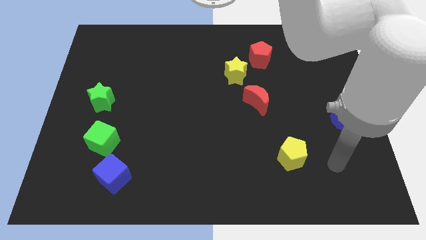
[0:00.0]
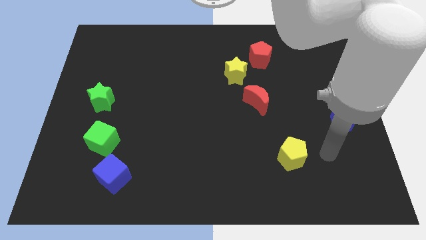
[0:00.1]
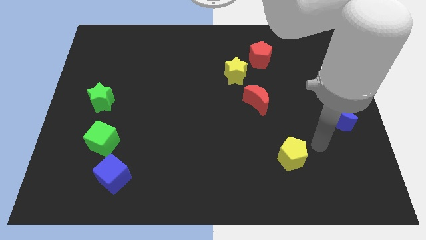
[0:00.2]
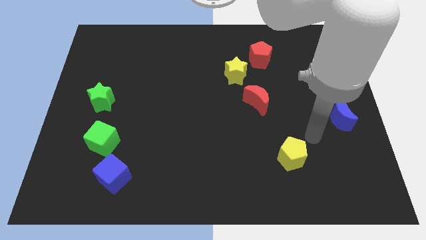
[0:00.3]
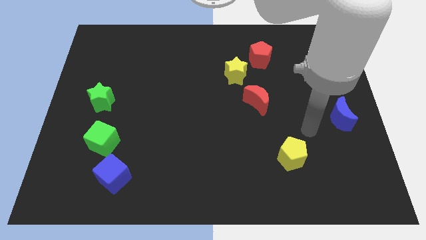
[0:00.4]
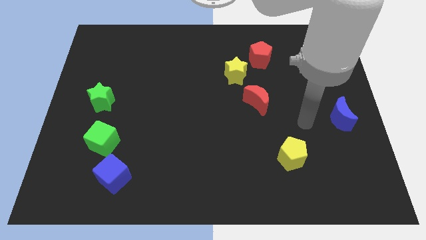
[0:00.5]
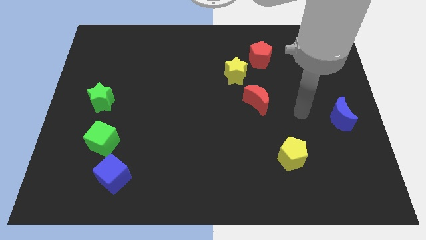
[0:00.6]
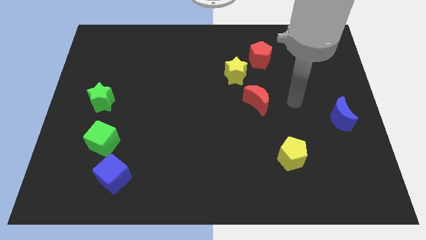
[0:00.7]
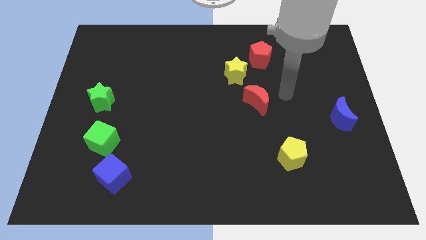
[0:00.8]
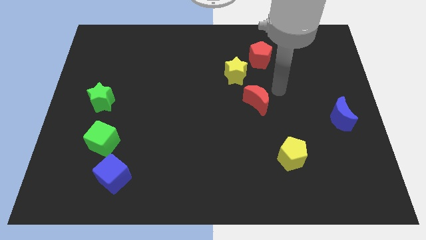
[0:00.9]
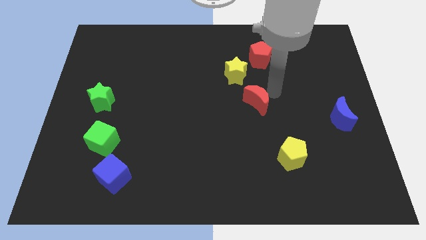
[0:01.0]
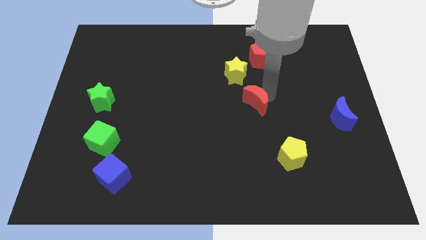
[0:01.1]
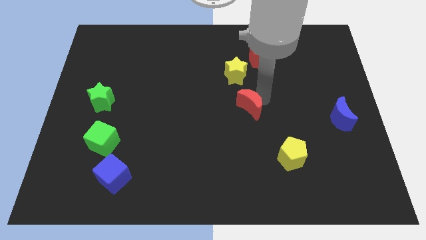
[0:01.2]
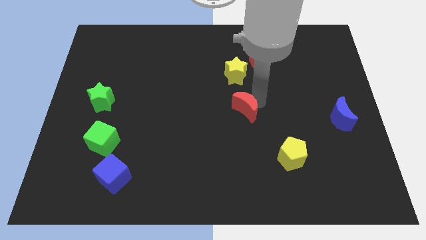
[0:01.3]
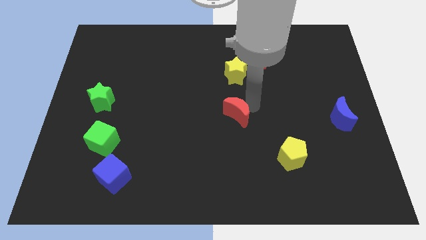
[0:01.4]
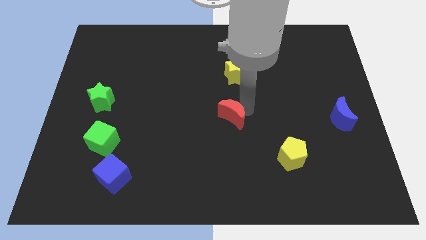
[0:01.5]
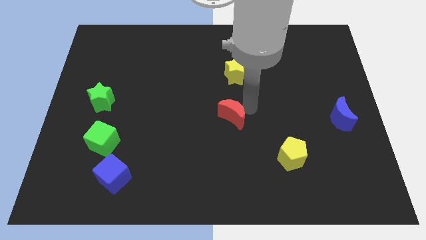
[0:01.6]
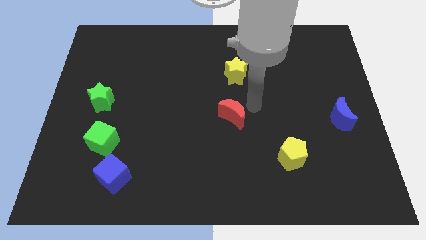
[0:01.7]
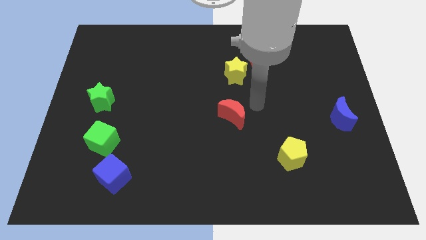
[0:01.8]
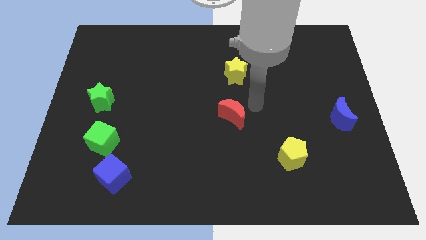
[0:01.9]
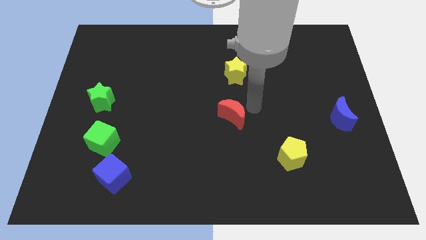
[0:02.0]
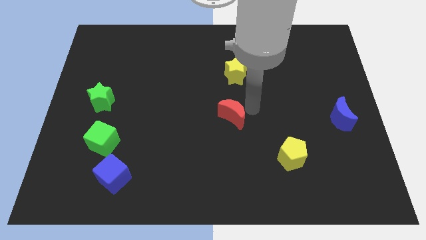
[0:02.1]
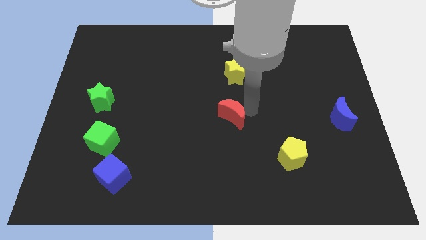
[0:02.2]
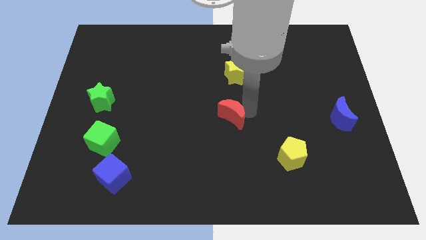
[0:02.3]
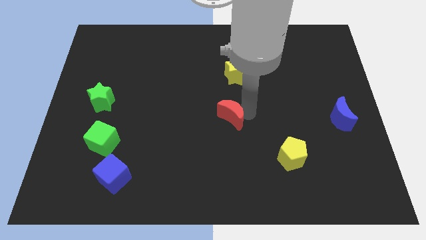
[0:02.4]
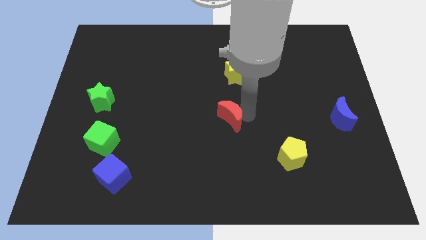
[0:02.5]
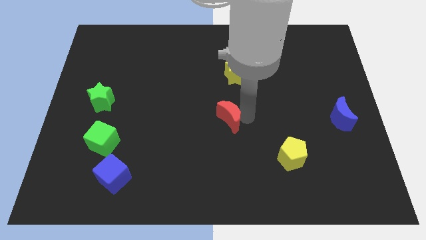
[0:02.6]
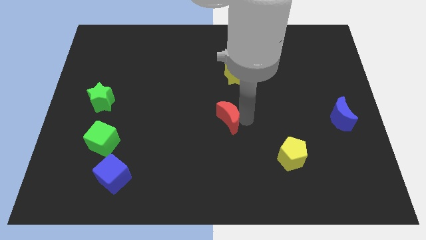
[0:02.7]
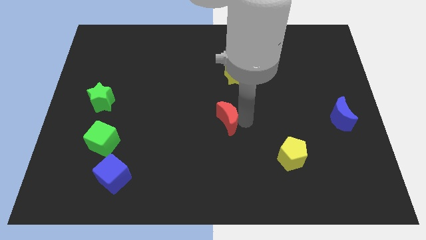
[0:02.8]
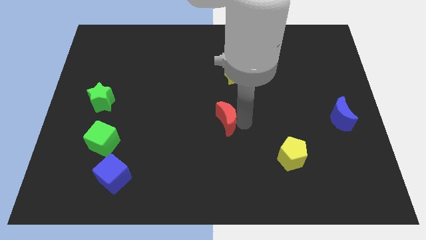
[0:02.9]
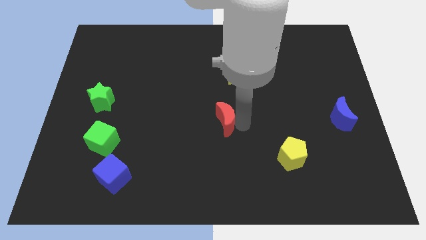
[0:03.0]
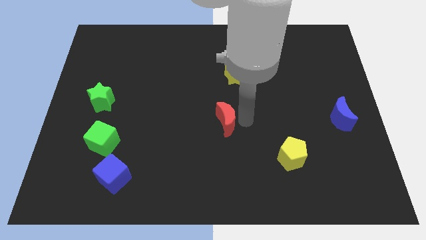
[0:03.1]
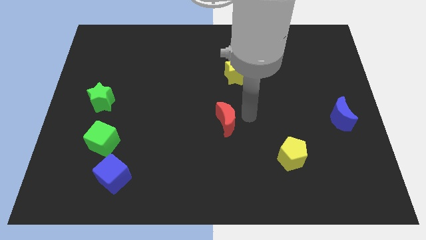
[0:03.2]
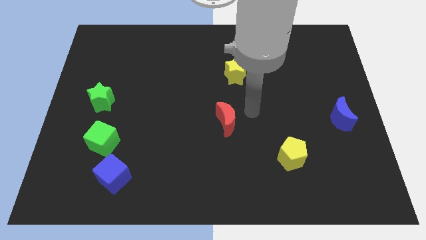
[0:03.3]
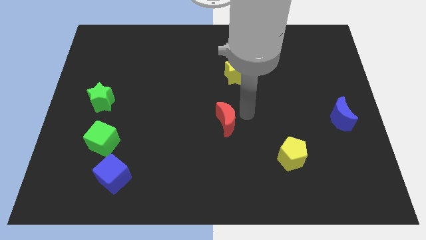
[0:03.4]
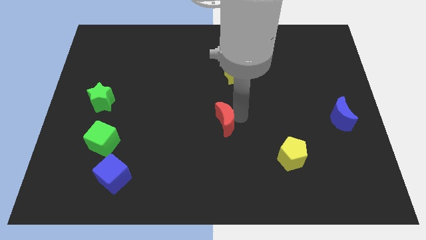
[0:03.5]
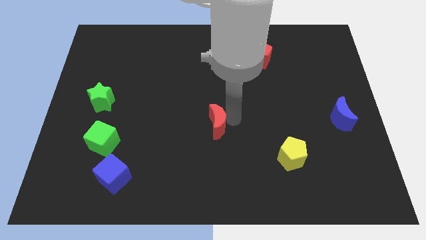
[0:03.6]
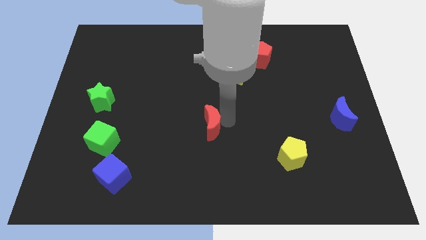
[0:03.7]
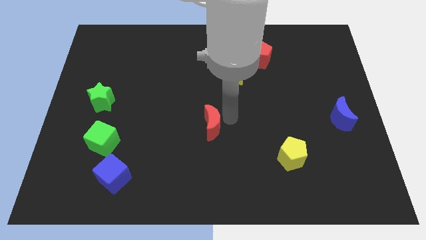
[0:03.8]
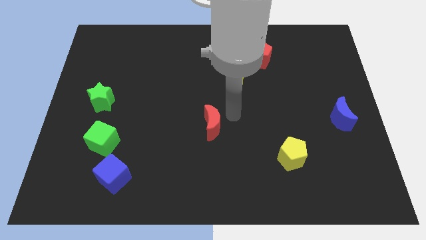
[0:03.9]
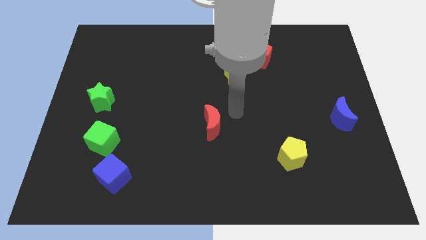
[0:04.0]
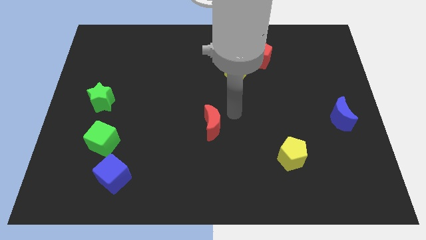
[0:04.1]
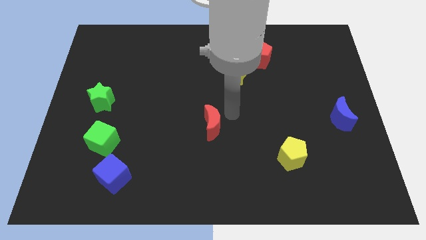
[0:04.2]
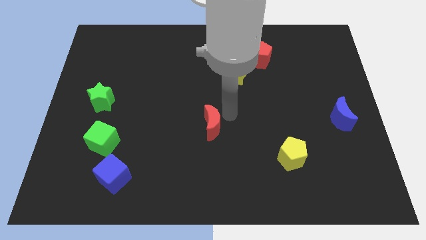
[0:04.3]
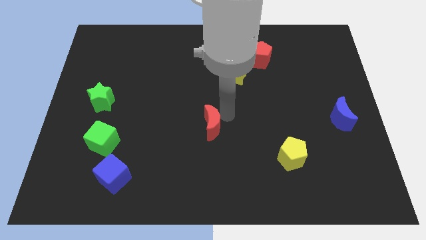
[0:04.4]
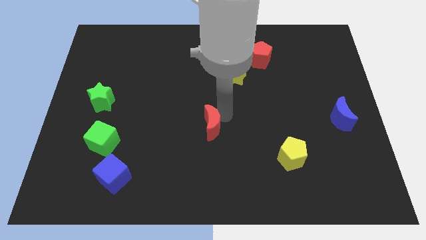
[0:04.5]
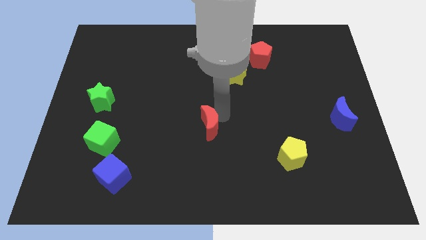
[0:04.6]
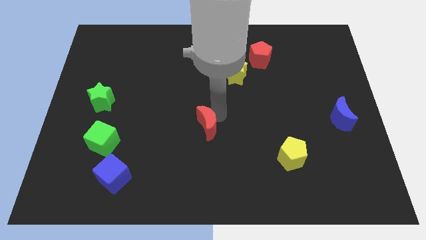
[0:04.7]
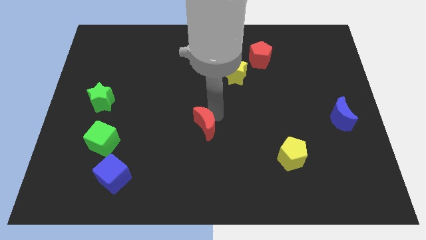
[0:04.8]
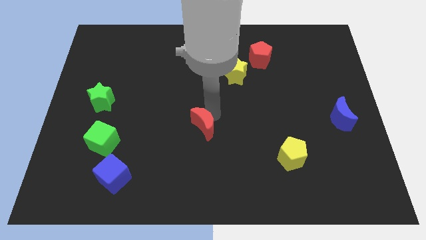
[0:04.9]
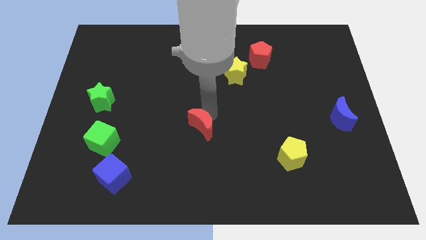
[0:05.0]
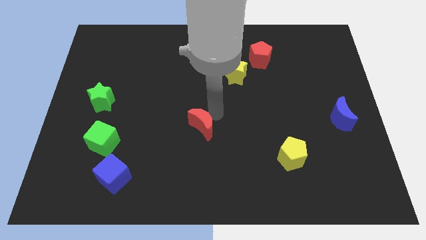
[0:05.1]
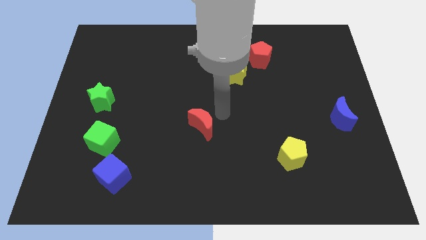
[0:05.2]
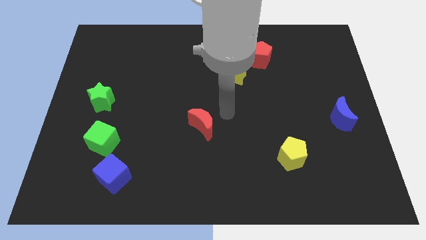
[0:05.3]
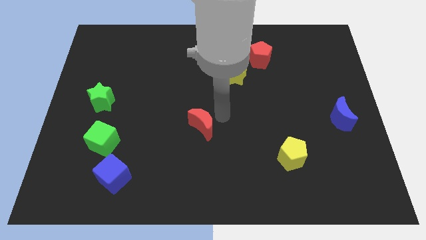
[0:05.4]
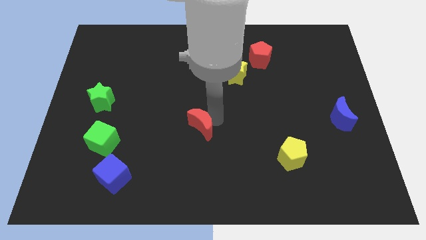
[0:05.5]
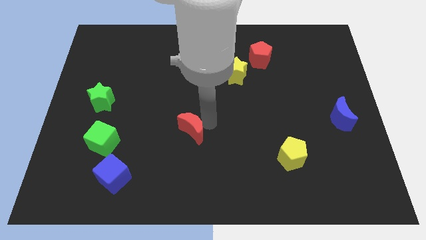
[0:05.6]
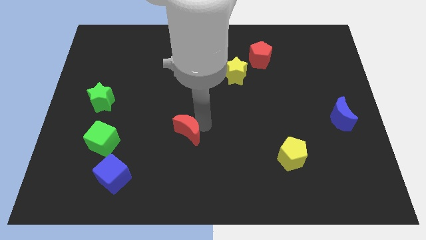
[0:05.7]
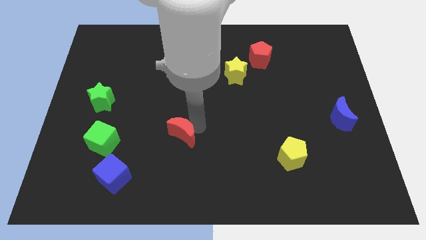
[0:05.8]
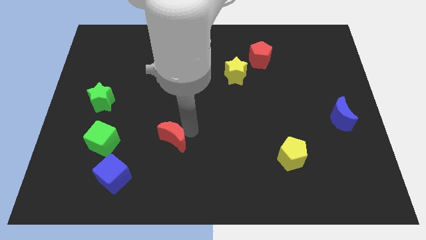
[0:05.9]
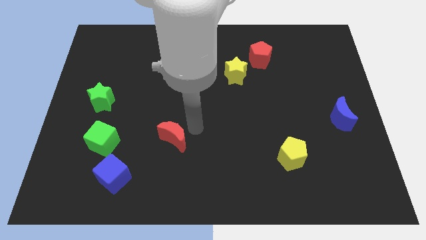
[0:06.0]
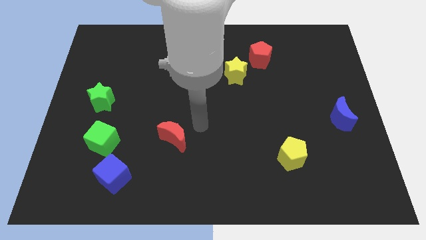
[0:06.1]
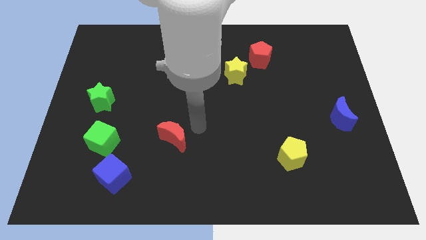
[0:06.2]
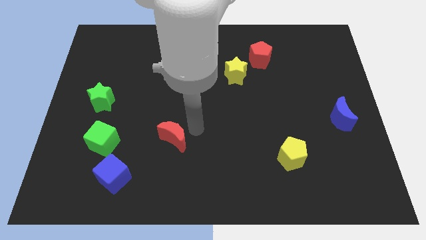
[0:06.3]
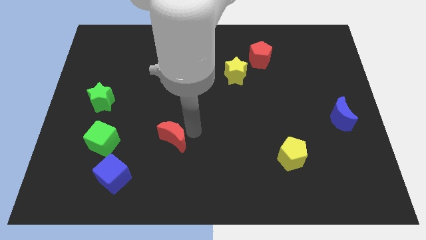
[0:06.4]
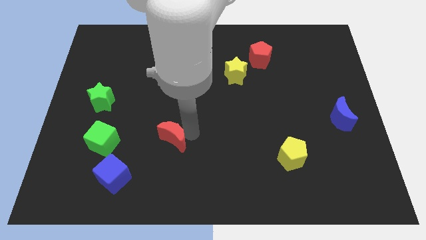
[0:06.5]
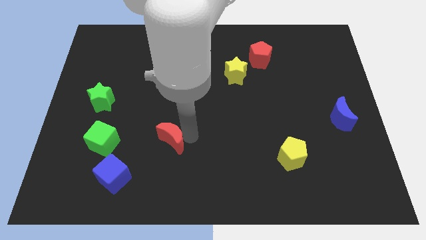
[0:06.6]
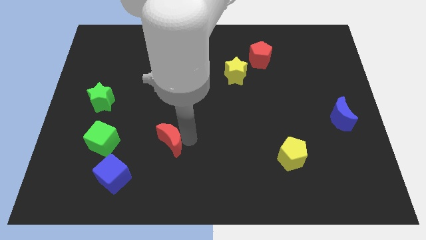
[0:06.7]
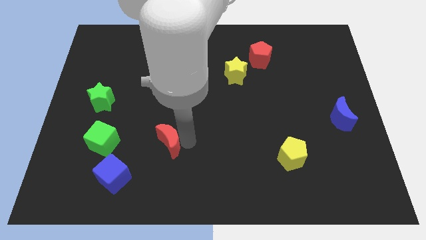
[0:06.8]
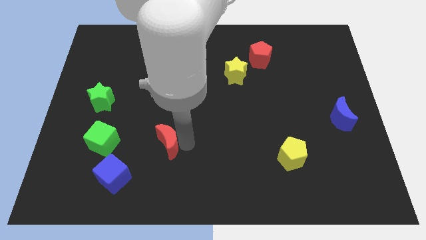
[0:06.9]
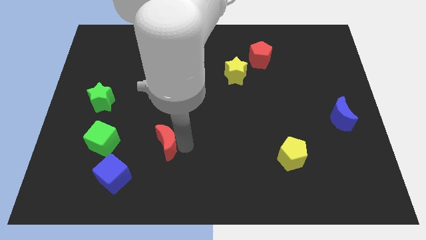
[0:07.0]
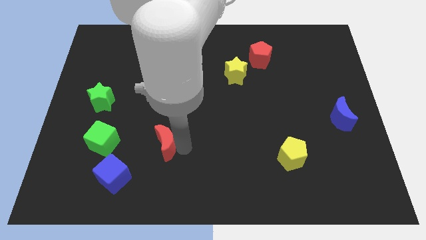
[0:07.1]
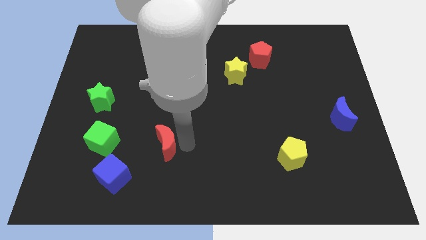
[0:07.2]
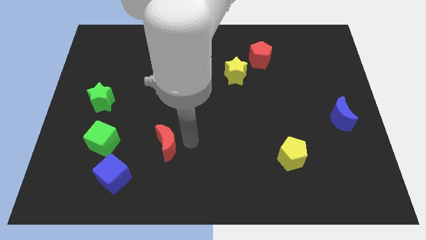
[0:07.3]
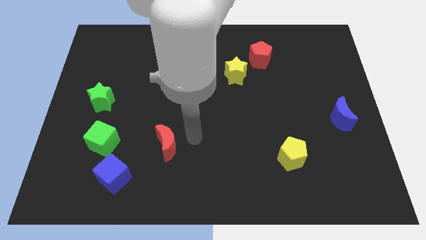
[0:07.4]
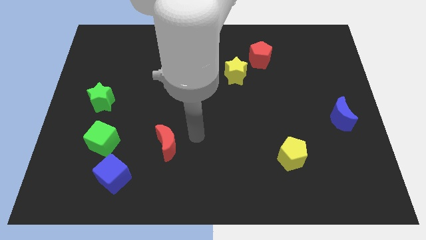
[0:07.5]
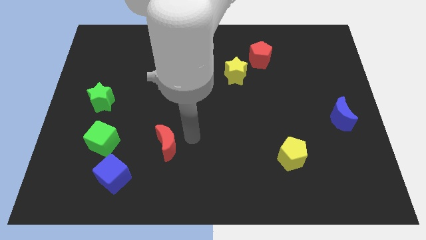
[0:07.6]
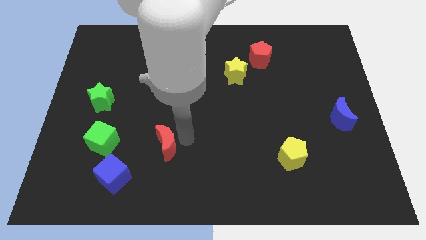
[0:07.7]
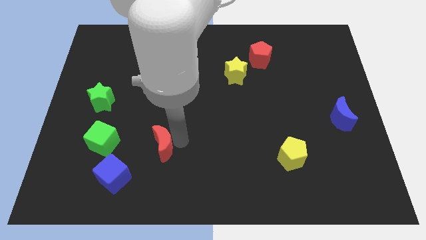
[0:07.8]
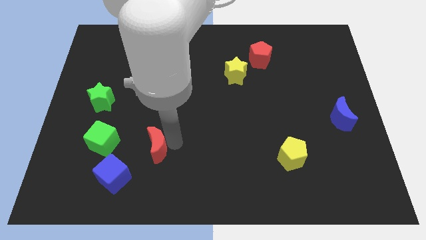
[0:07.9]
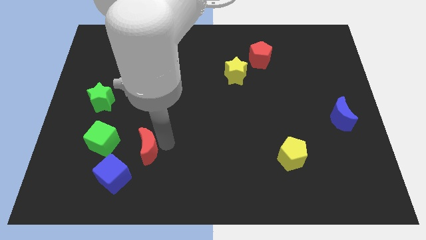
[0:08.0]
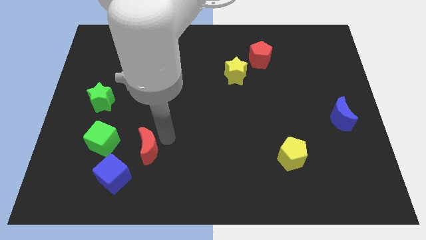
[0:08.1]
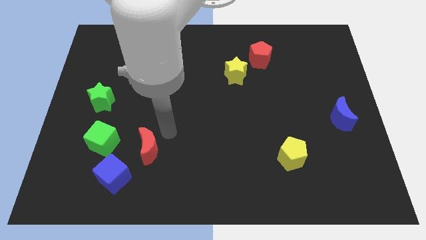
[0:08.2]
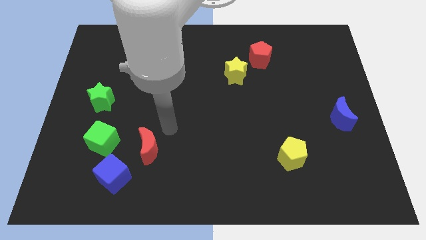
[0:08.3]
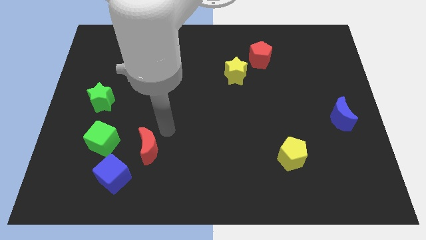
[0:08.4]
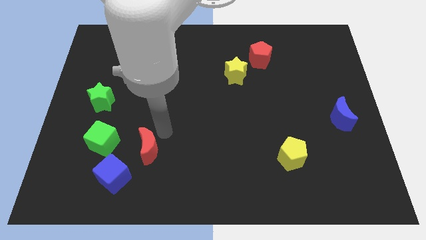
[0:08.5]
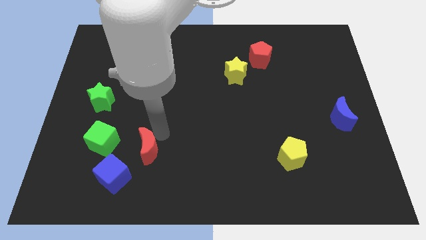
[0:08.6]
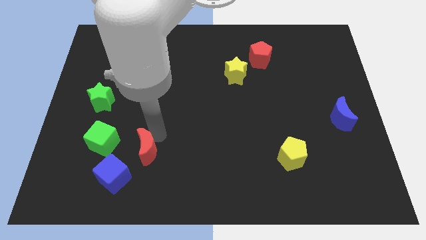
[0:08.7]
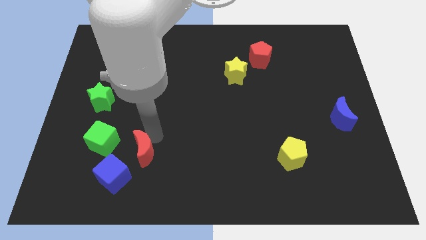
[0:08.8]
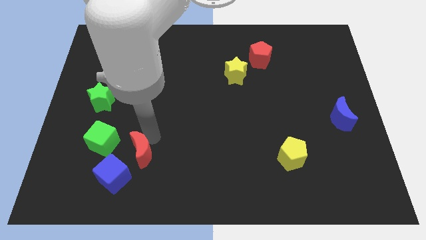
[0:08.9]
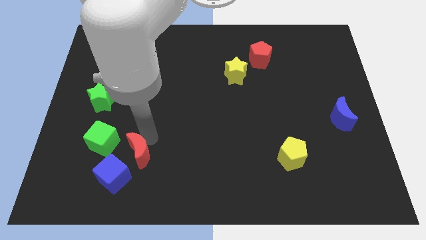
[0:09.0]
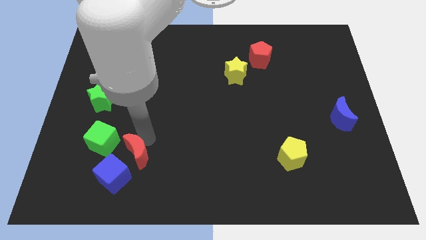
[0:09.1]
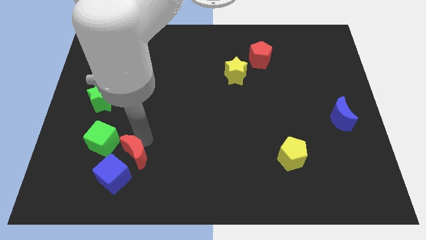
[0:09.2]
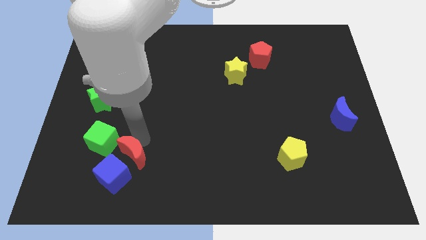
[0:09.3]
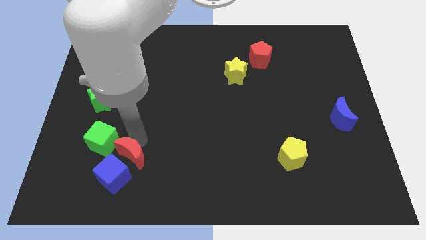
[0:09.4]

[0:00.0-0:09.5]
push the red moon to the blue cube
